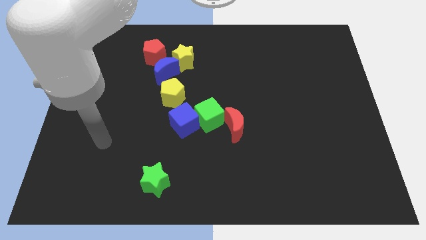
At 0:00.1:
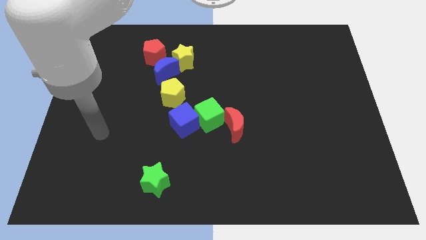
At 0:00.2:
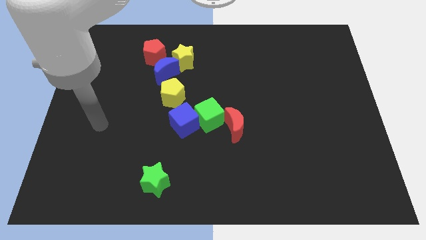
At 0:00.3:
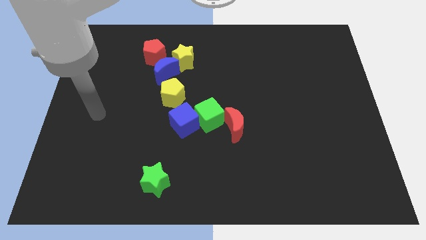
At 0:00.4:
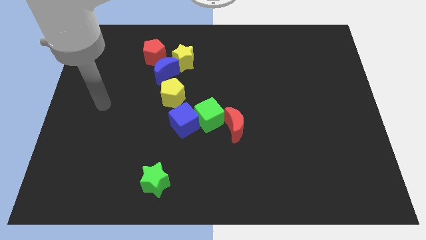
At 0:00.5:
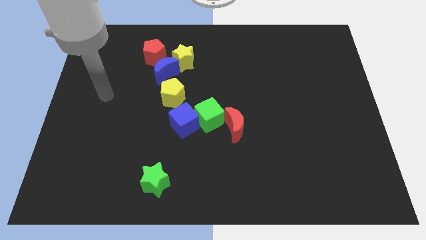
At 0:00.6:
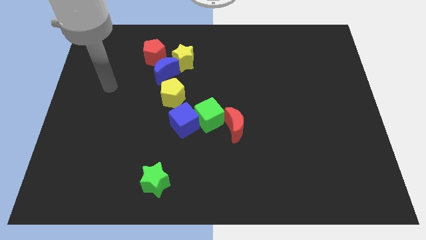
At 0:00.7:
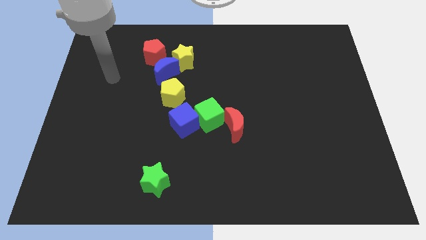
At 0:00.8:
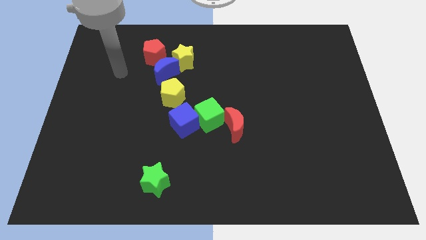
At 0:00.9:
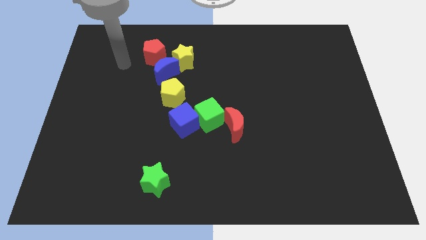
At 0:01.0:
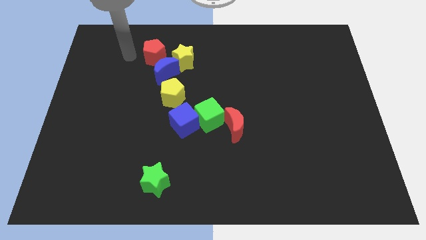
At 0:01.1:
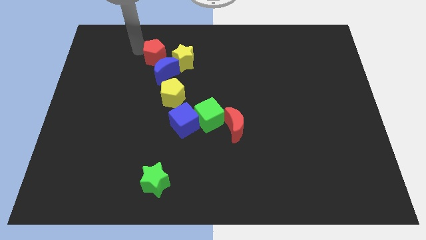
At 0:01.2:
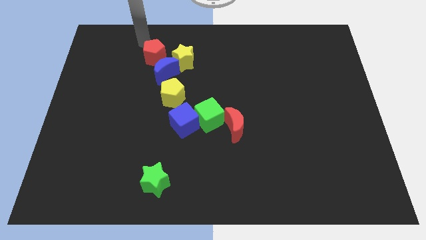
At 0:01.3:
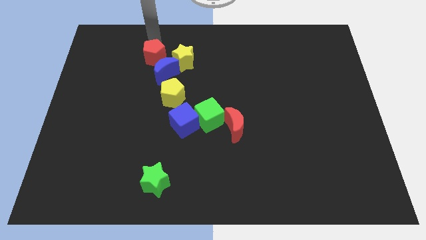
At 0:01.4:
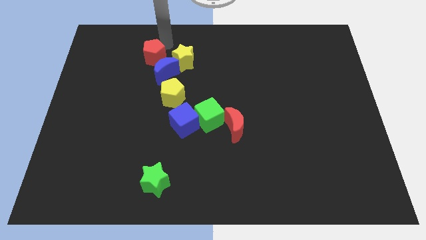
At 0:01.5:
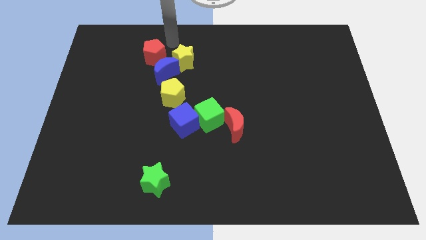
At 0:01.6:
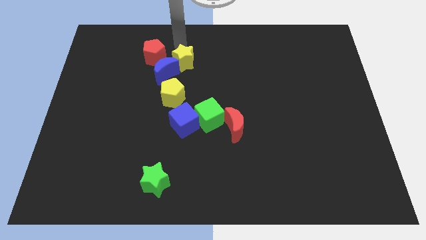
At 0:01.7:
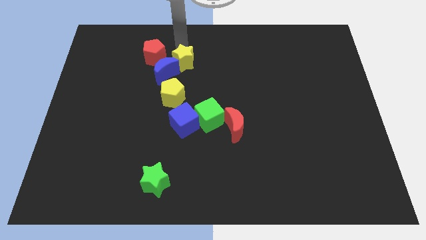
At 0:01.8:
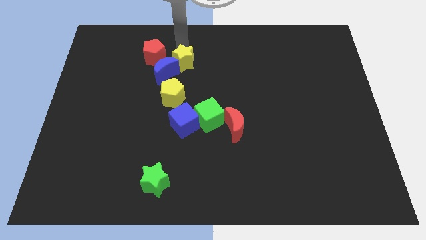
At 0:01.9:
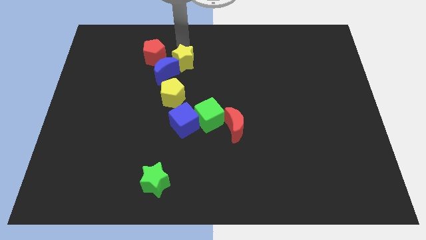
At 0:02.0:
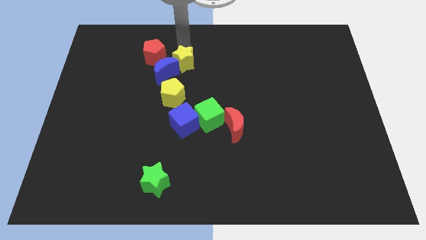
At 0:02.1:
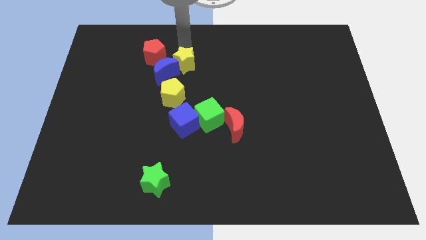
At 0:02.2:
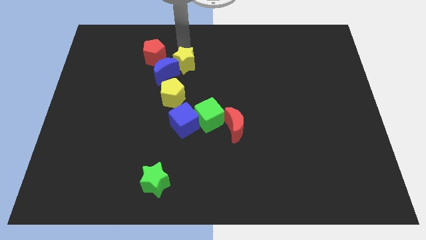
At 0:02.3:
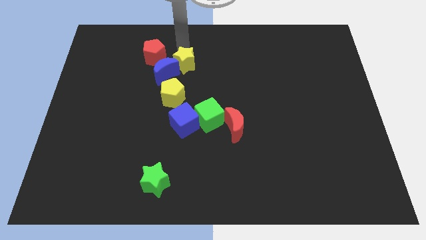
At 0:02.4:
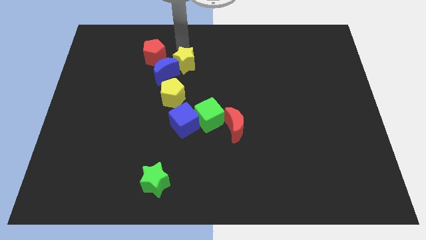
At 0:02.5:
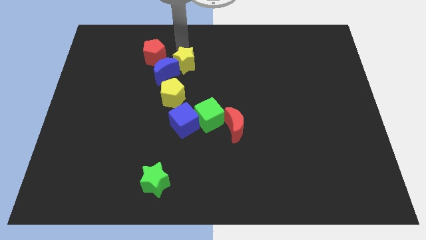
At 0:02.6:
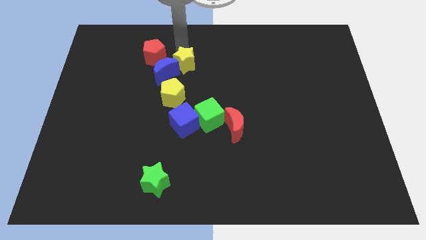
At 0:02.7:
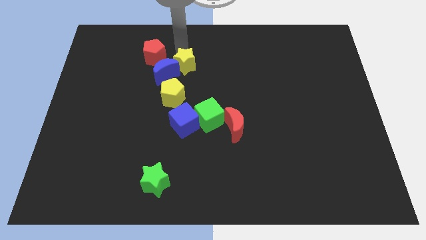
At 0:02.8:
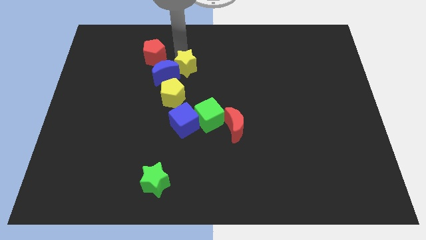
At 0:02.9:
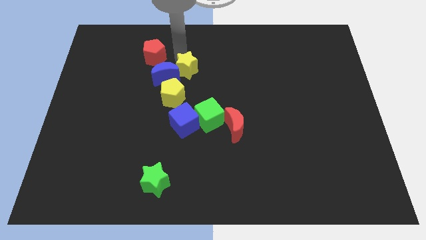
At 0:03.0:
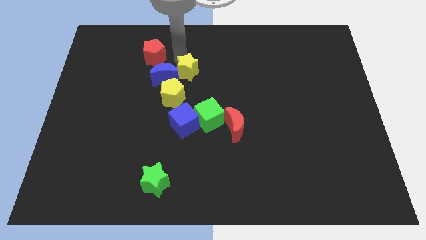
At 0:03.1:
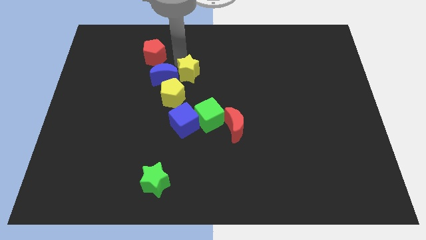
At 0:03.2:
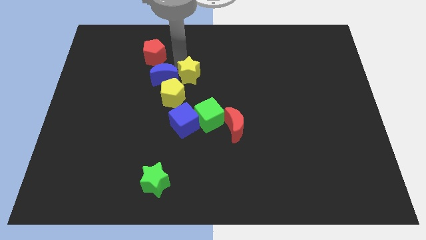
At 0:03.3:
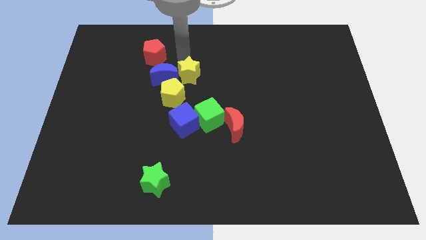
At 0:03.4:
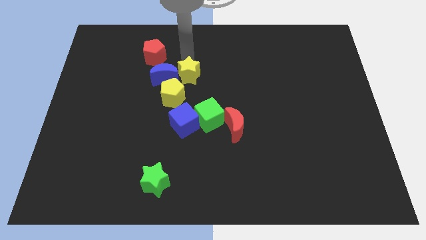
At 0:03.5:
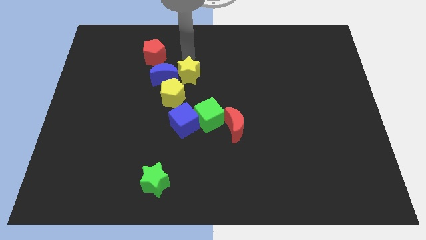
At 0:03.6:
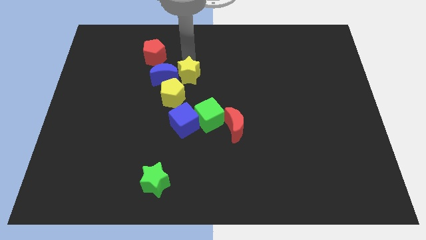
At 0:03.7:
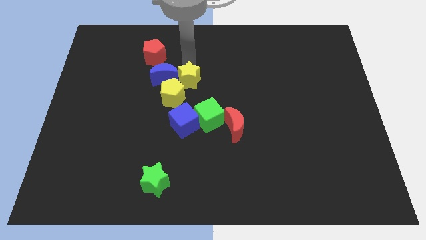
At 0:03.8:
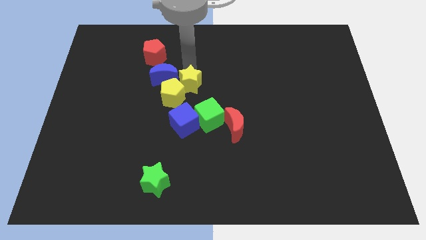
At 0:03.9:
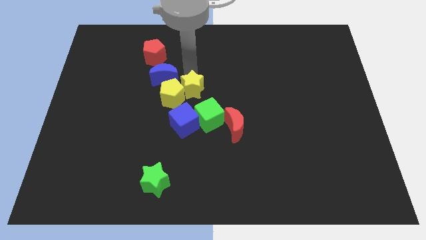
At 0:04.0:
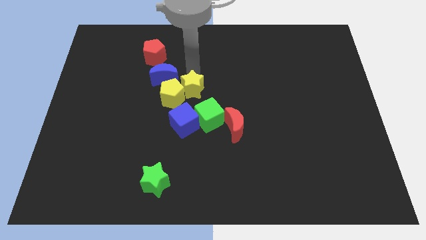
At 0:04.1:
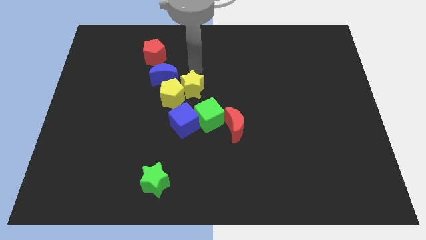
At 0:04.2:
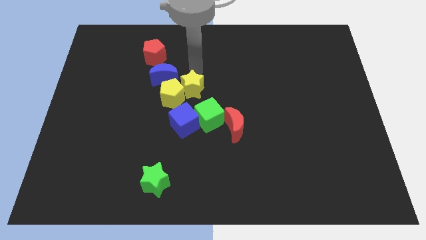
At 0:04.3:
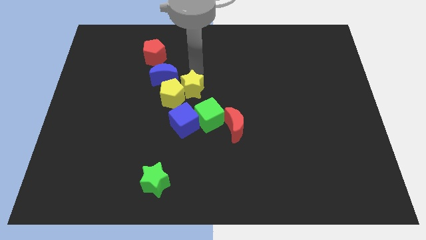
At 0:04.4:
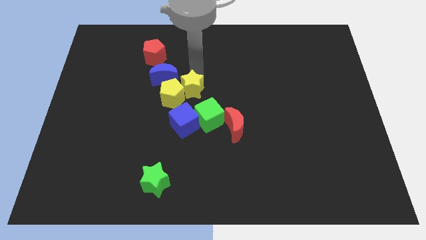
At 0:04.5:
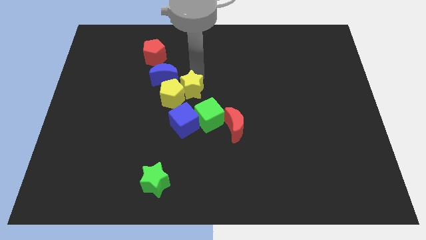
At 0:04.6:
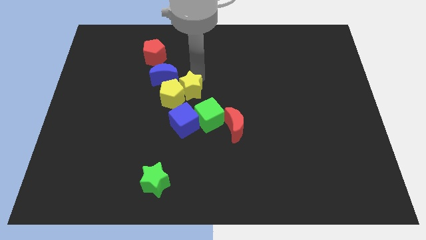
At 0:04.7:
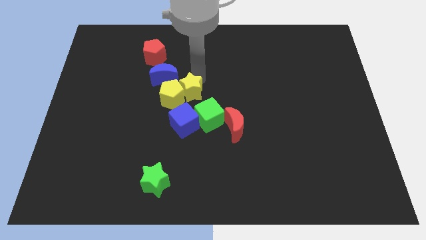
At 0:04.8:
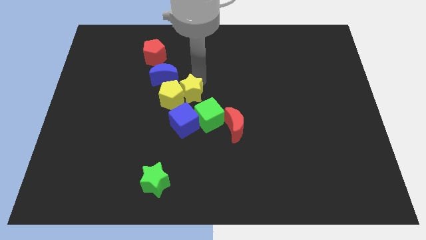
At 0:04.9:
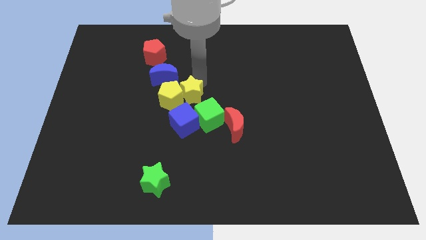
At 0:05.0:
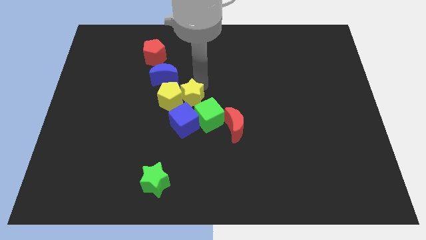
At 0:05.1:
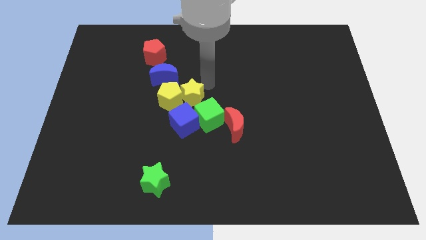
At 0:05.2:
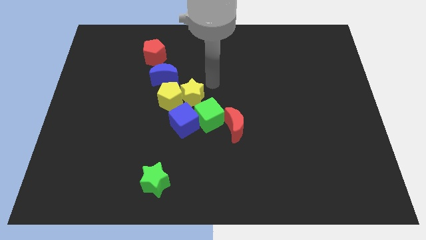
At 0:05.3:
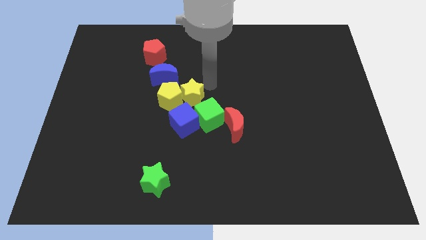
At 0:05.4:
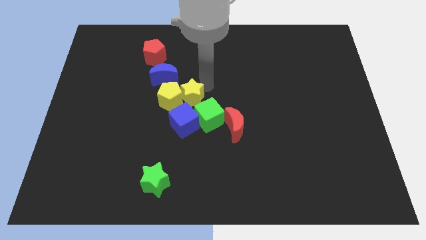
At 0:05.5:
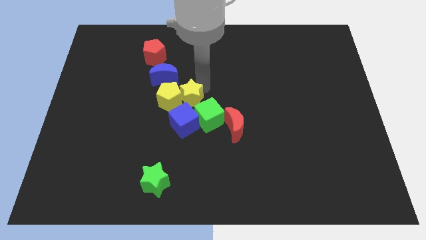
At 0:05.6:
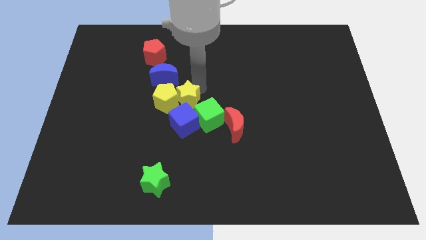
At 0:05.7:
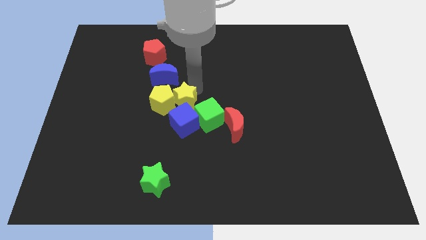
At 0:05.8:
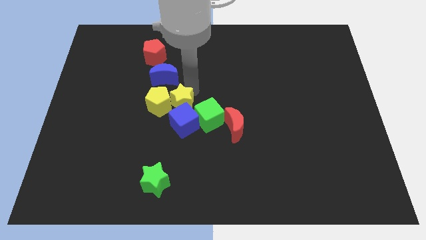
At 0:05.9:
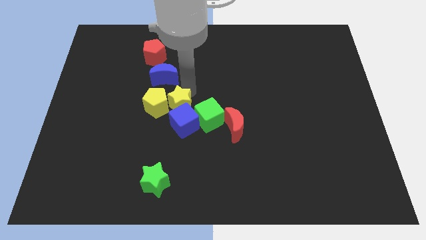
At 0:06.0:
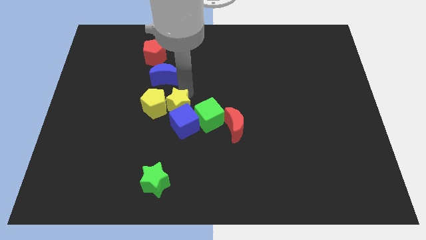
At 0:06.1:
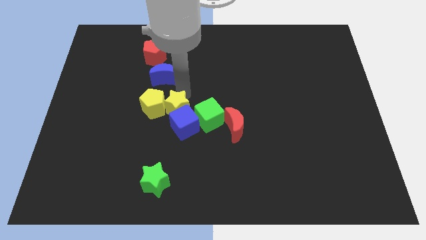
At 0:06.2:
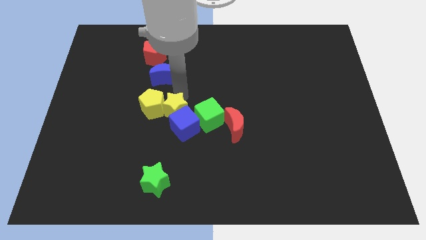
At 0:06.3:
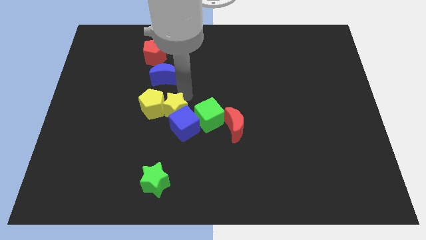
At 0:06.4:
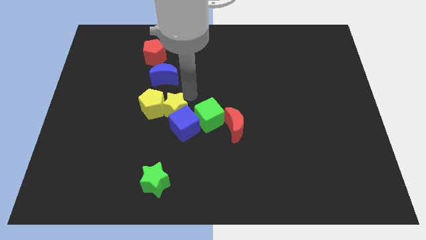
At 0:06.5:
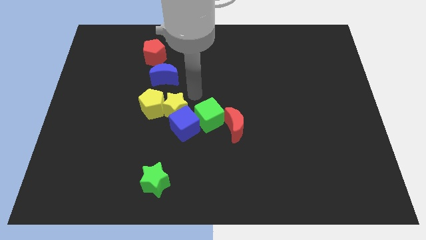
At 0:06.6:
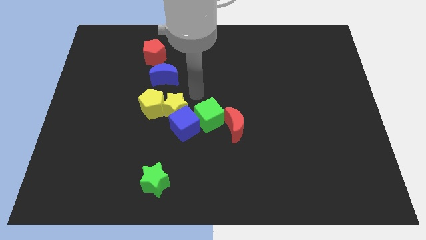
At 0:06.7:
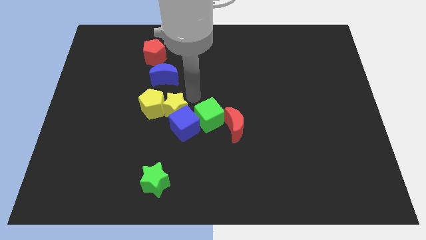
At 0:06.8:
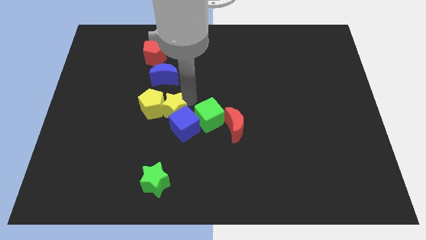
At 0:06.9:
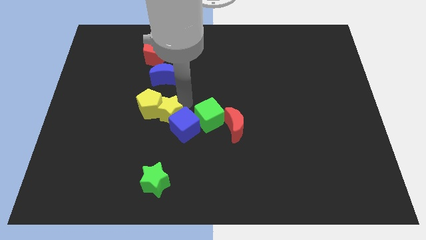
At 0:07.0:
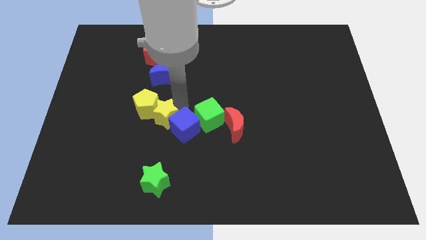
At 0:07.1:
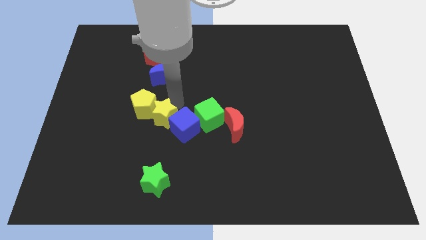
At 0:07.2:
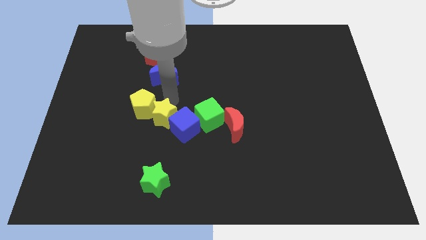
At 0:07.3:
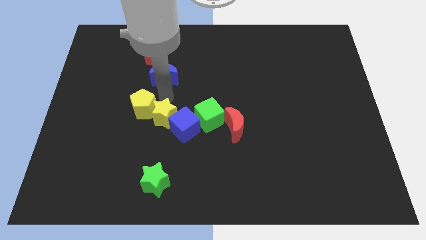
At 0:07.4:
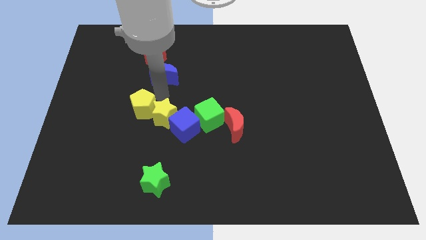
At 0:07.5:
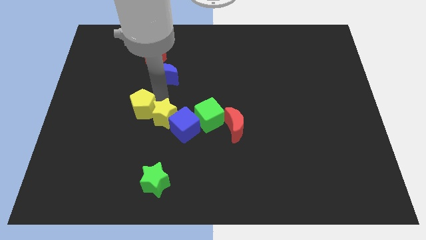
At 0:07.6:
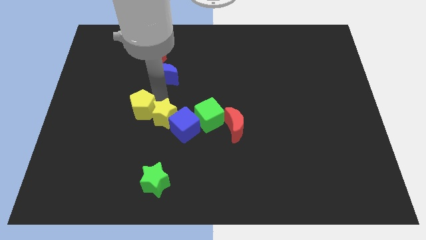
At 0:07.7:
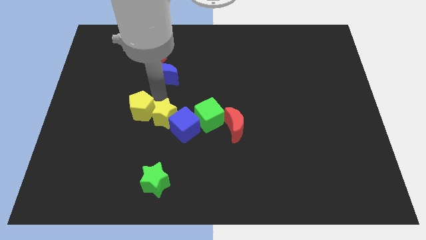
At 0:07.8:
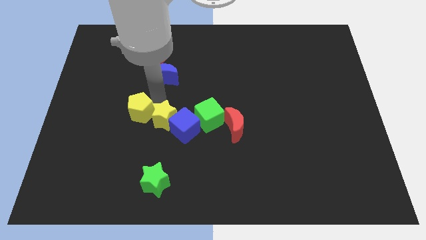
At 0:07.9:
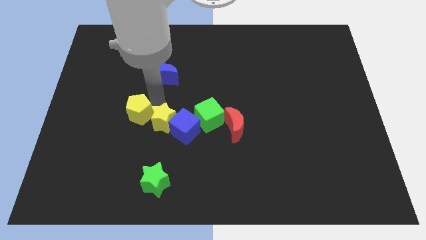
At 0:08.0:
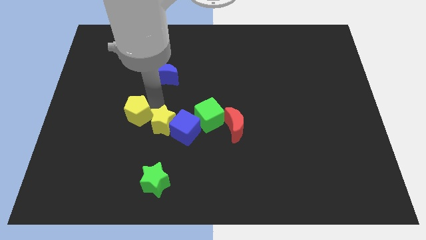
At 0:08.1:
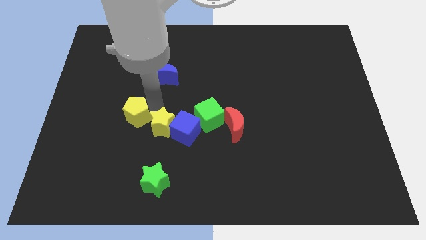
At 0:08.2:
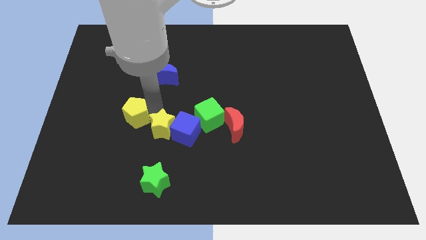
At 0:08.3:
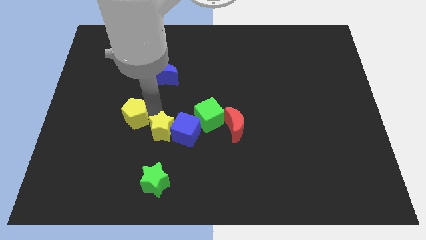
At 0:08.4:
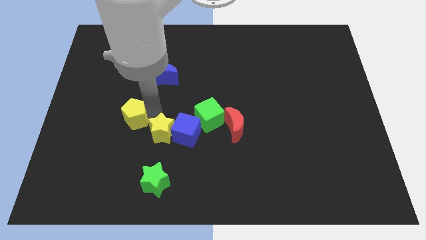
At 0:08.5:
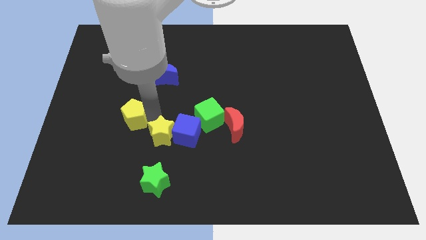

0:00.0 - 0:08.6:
push the yellow star to the bottom left of the green cube
